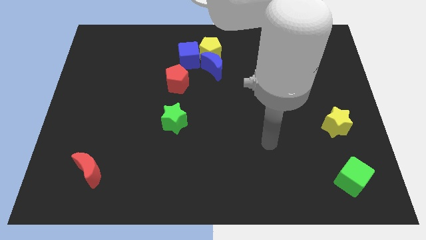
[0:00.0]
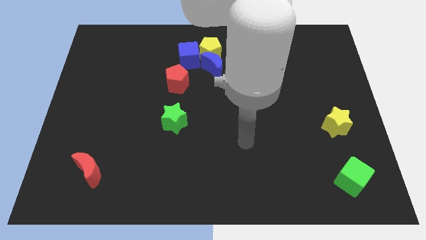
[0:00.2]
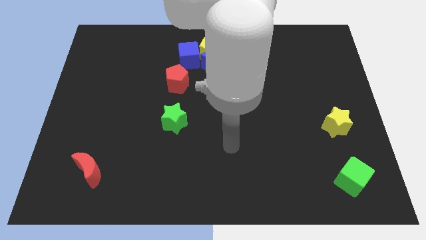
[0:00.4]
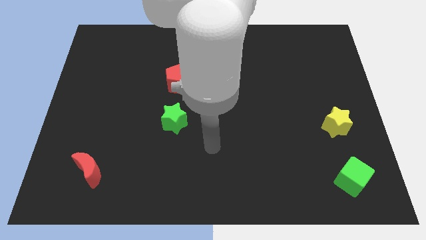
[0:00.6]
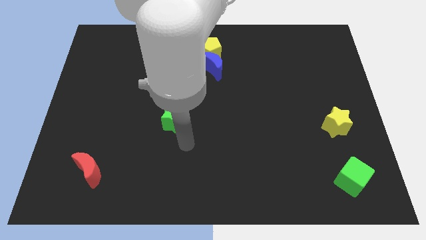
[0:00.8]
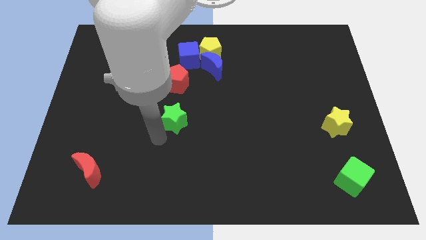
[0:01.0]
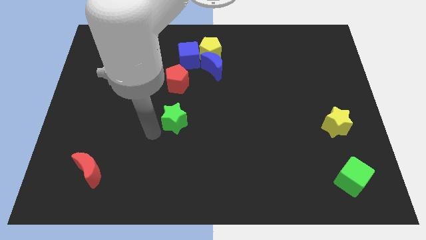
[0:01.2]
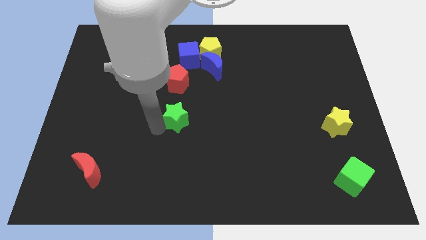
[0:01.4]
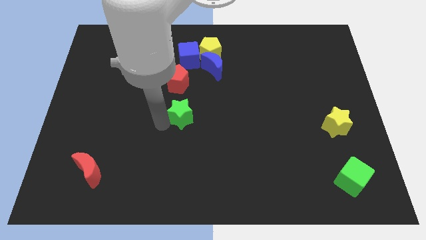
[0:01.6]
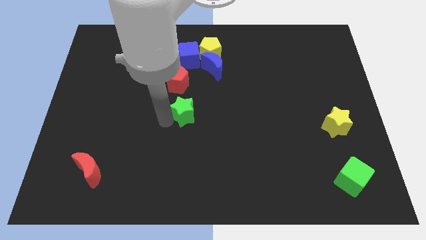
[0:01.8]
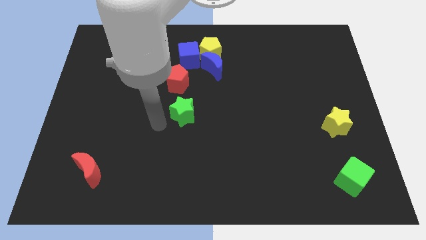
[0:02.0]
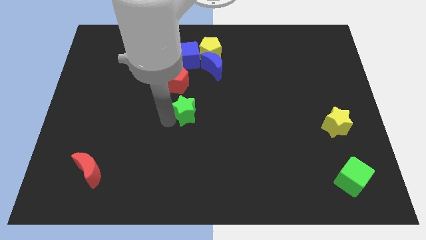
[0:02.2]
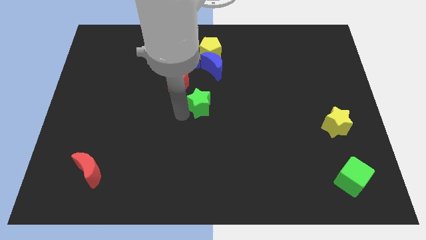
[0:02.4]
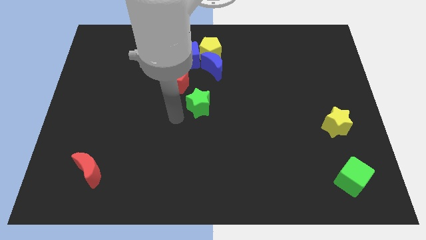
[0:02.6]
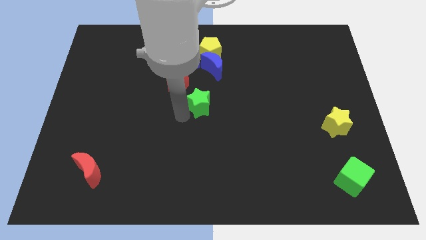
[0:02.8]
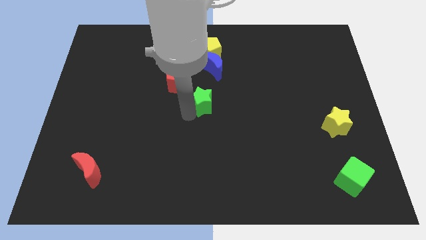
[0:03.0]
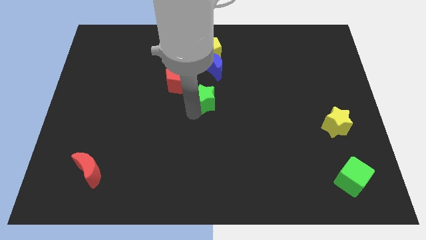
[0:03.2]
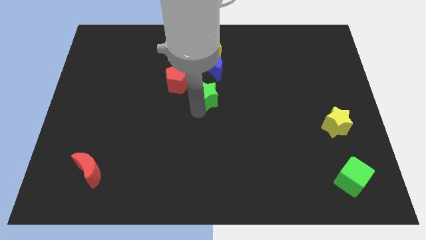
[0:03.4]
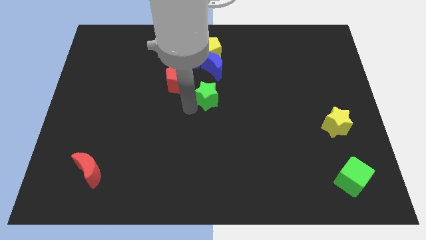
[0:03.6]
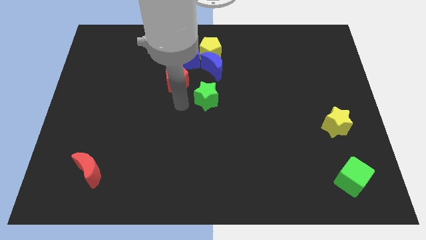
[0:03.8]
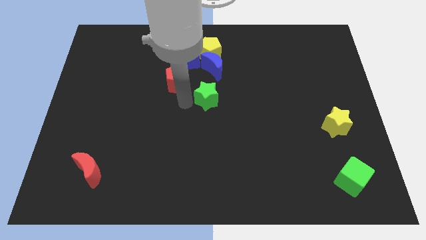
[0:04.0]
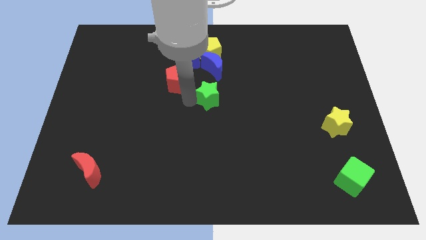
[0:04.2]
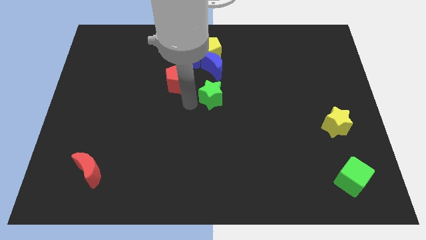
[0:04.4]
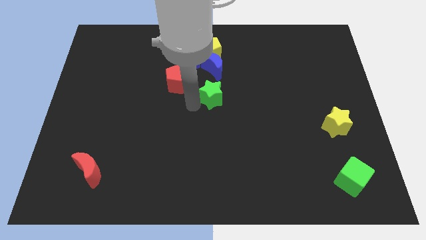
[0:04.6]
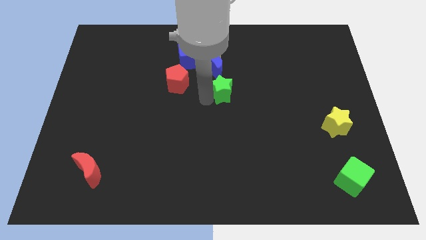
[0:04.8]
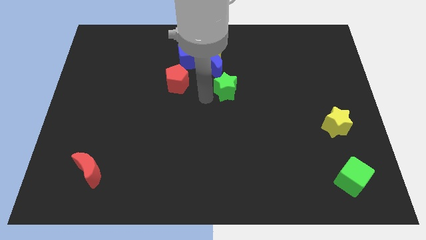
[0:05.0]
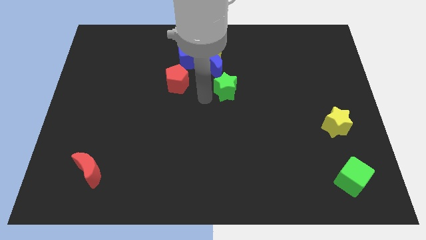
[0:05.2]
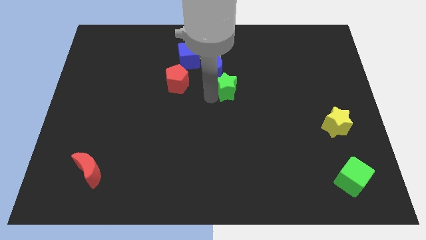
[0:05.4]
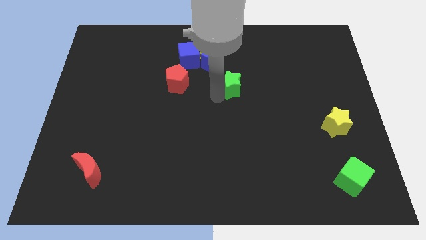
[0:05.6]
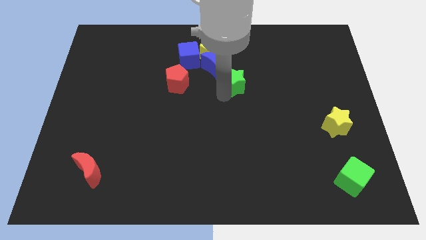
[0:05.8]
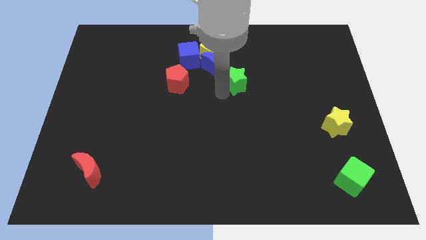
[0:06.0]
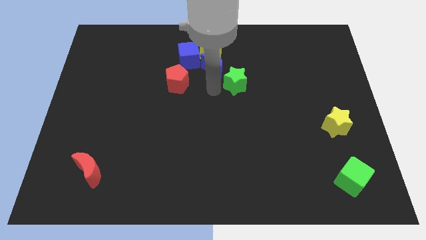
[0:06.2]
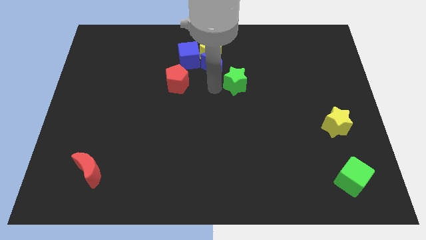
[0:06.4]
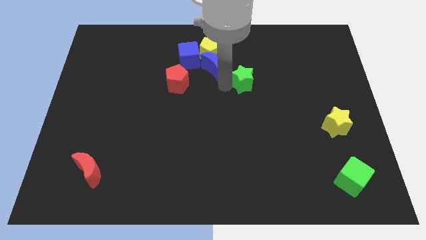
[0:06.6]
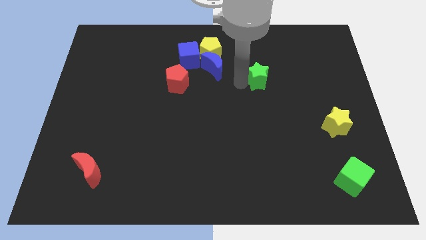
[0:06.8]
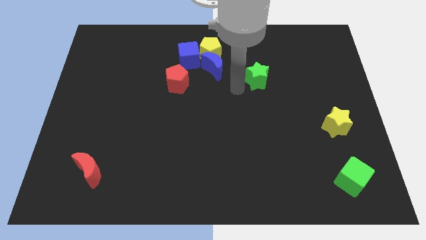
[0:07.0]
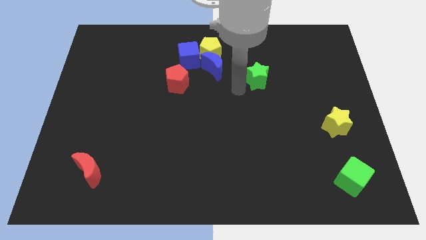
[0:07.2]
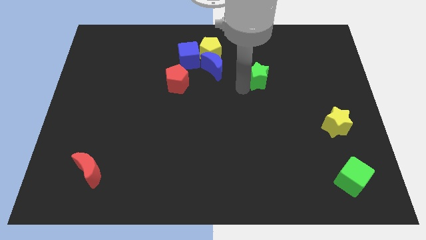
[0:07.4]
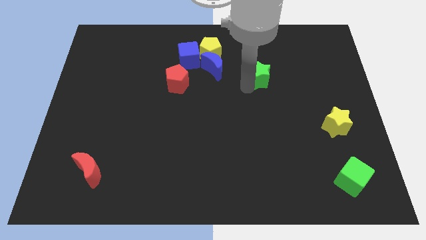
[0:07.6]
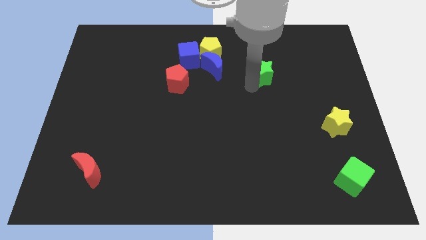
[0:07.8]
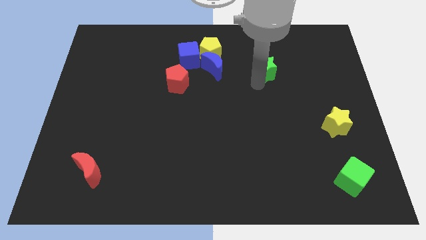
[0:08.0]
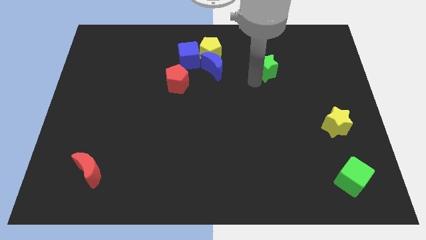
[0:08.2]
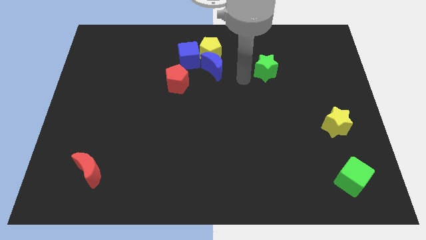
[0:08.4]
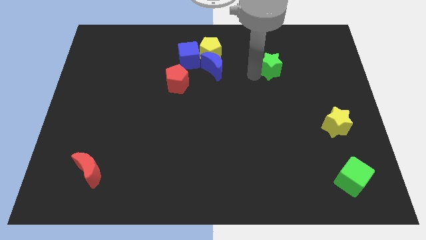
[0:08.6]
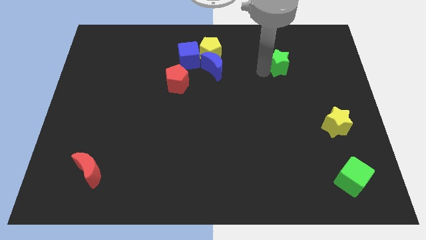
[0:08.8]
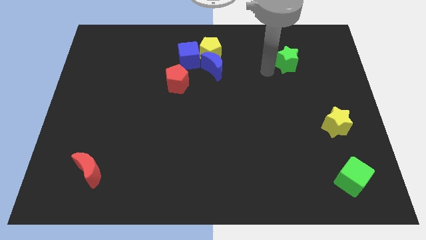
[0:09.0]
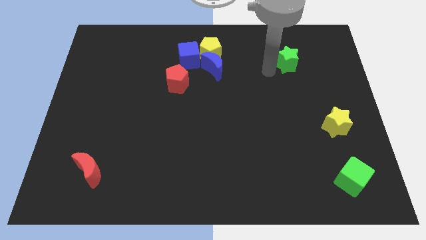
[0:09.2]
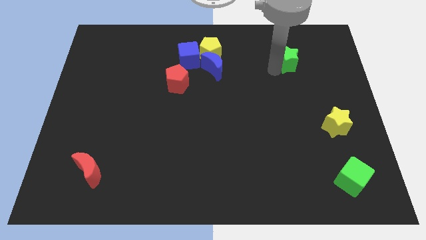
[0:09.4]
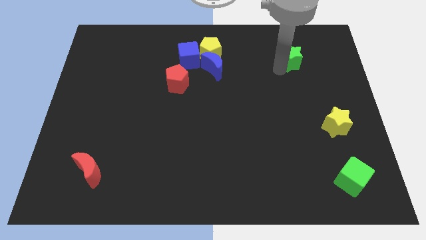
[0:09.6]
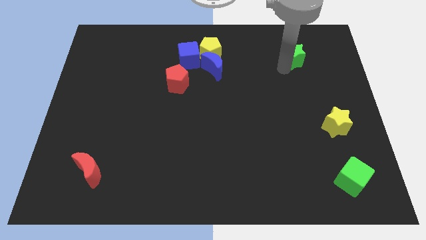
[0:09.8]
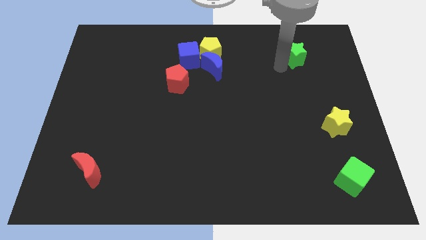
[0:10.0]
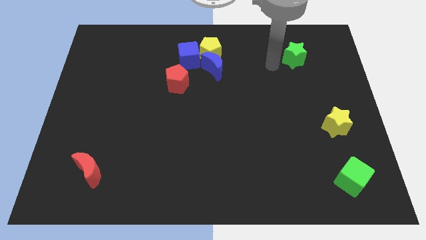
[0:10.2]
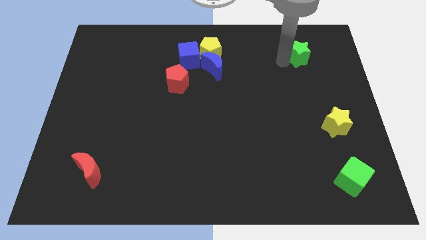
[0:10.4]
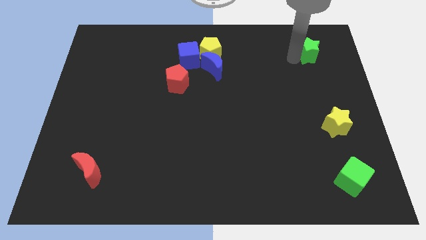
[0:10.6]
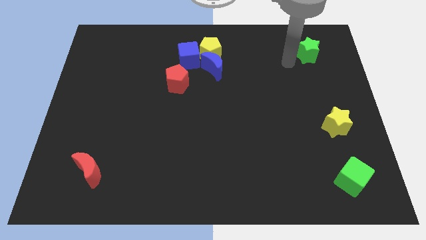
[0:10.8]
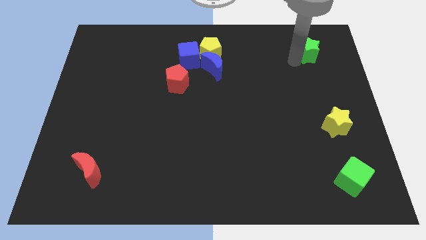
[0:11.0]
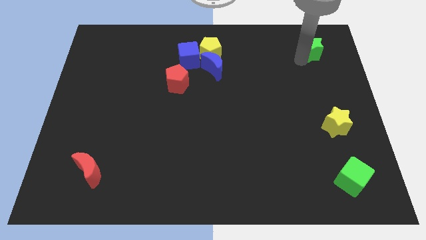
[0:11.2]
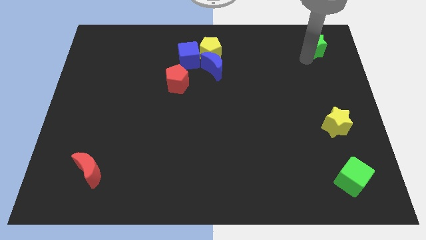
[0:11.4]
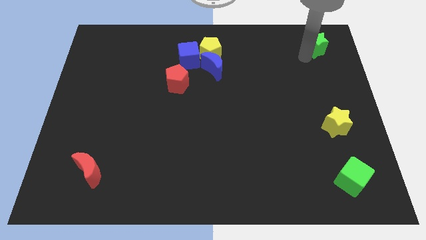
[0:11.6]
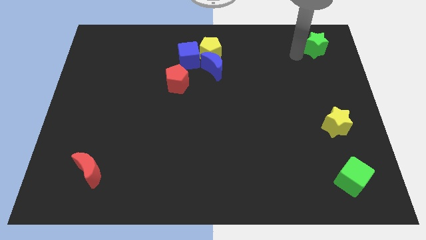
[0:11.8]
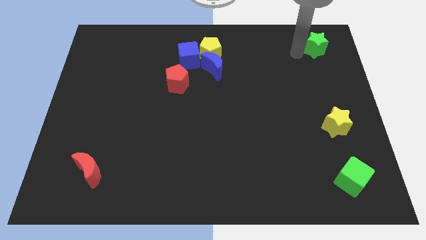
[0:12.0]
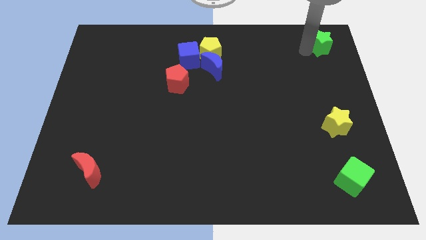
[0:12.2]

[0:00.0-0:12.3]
move the green star to the top right corner

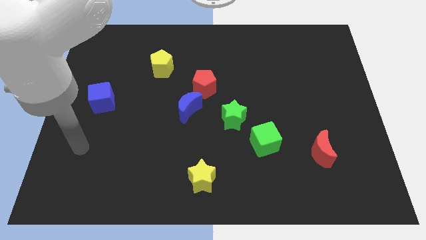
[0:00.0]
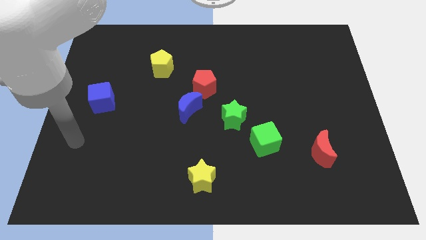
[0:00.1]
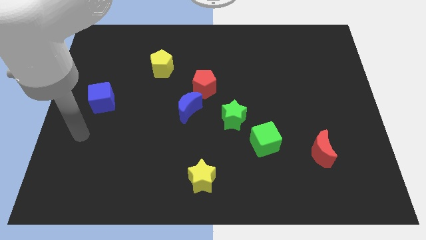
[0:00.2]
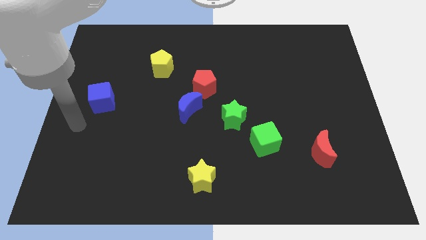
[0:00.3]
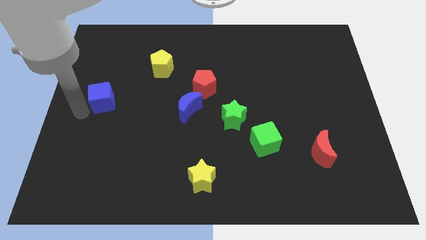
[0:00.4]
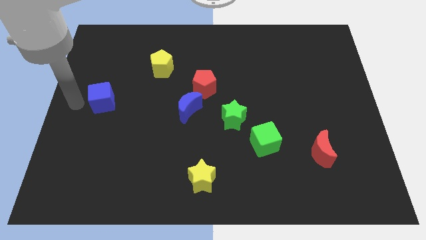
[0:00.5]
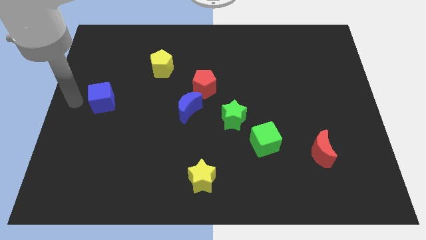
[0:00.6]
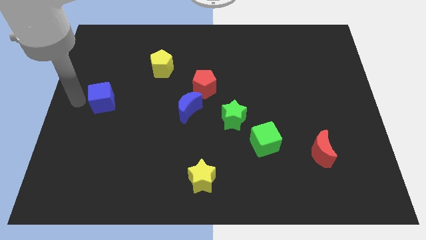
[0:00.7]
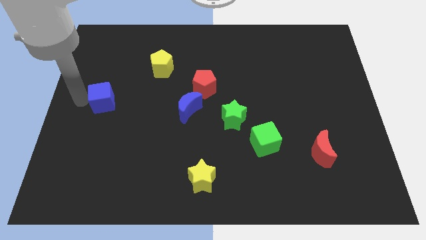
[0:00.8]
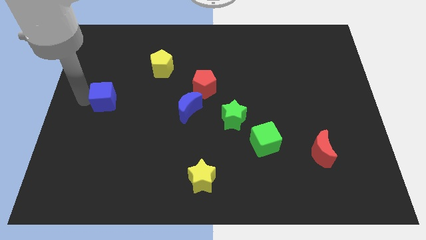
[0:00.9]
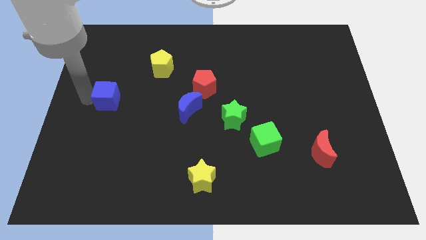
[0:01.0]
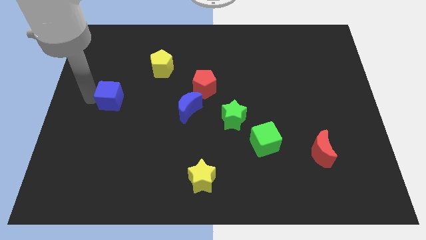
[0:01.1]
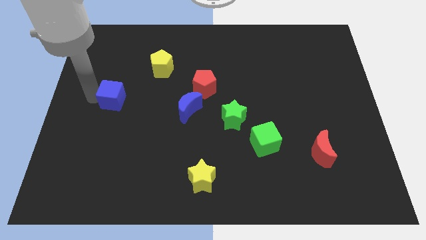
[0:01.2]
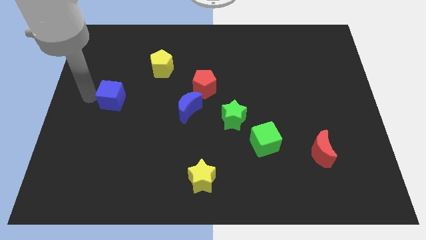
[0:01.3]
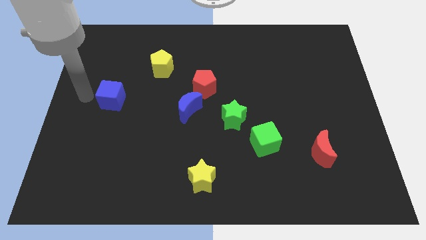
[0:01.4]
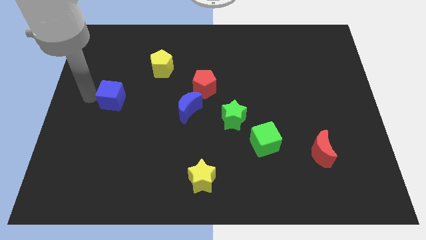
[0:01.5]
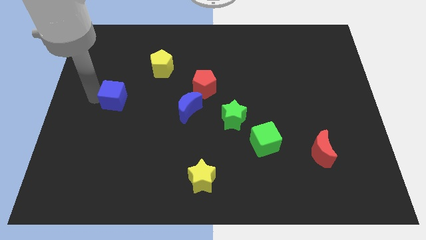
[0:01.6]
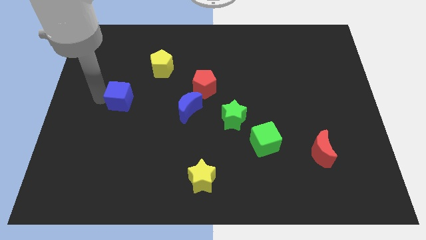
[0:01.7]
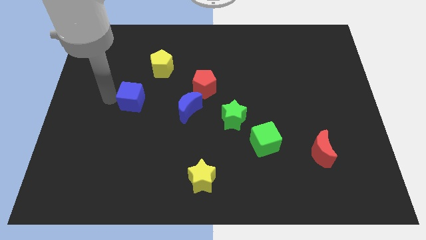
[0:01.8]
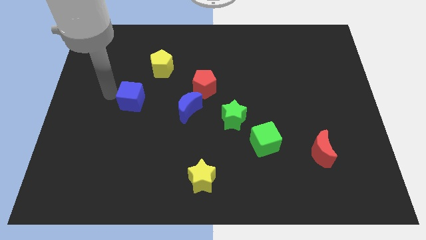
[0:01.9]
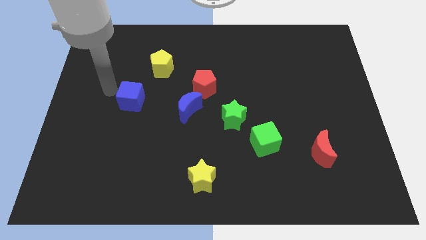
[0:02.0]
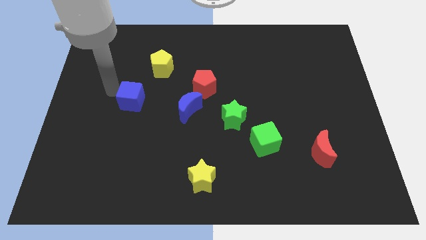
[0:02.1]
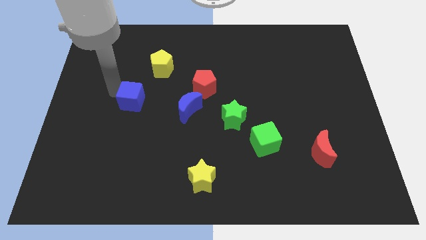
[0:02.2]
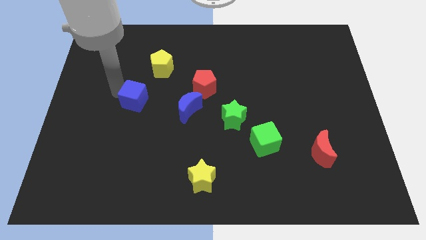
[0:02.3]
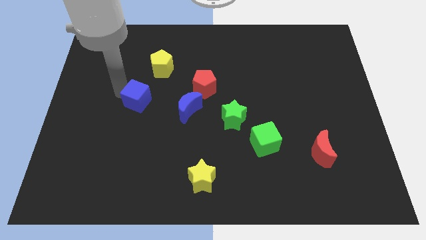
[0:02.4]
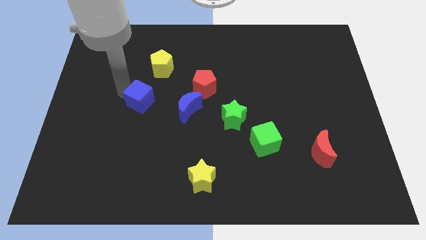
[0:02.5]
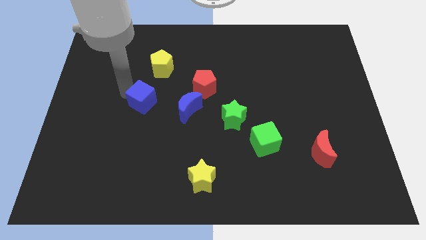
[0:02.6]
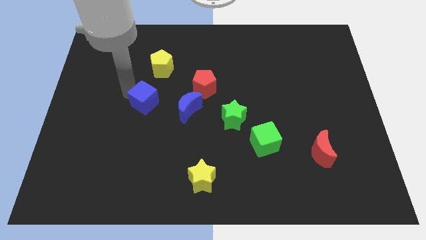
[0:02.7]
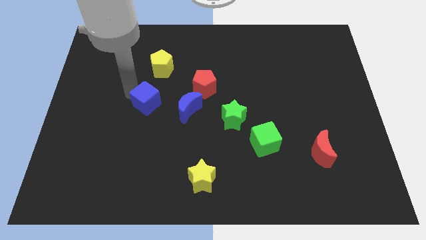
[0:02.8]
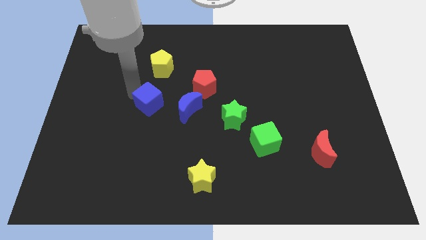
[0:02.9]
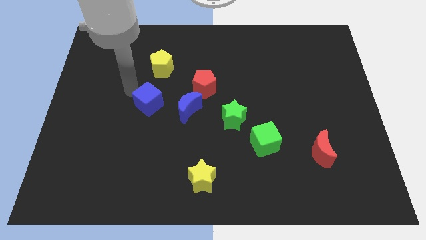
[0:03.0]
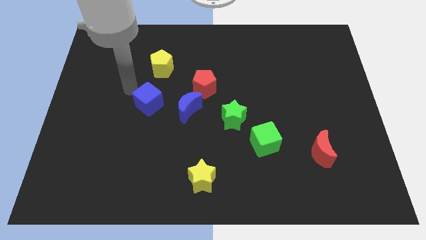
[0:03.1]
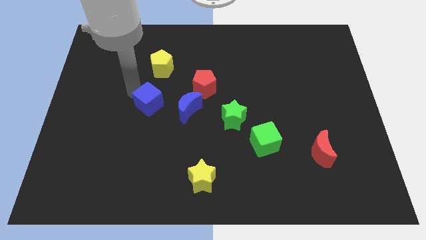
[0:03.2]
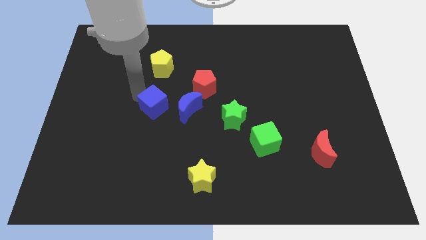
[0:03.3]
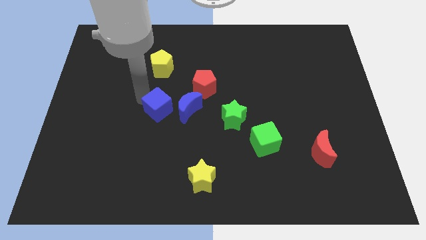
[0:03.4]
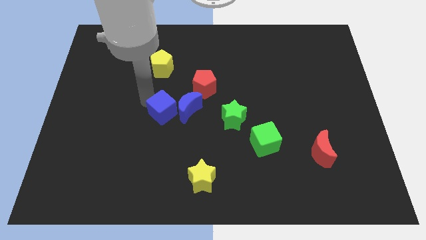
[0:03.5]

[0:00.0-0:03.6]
slide the blue cube to the center of the board
